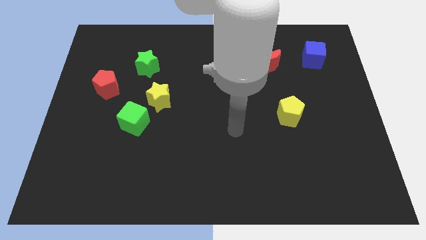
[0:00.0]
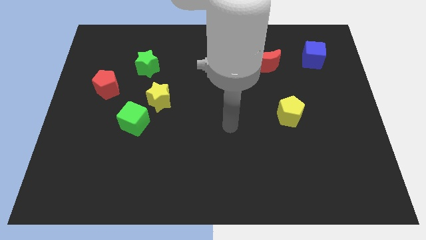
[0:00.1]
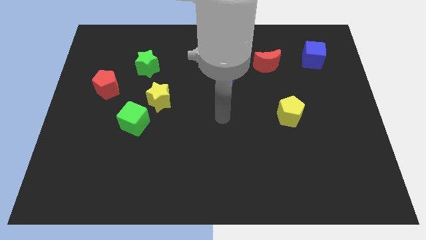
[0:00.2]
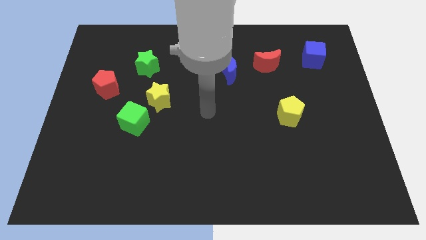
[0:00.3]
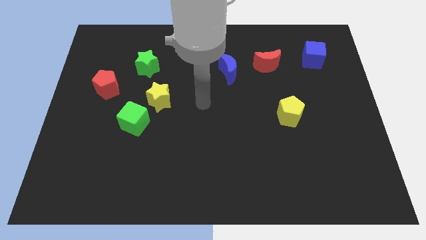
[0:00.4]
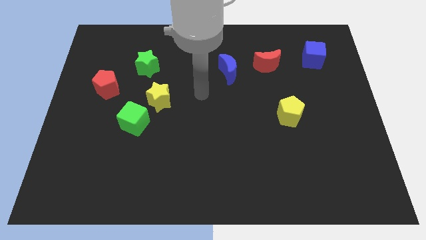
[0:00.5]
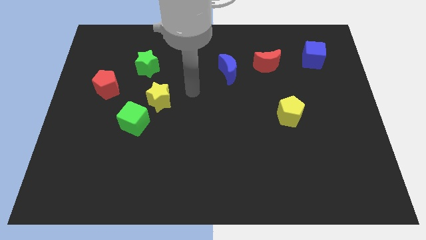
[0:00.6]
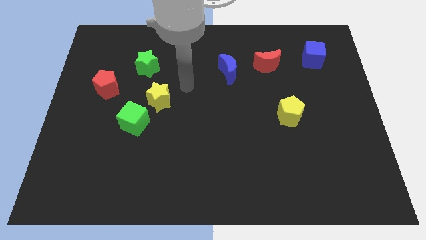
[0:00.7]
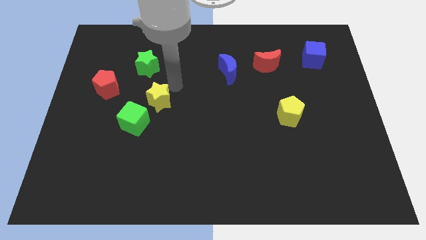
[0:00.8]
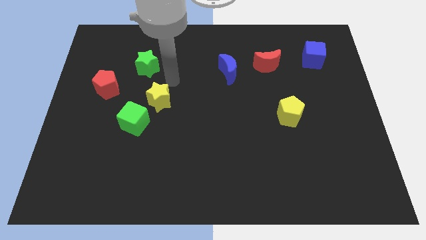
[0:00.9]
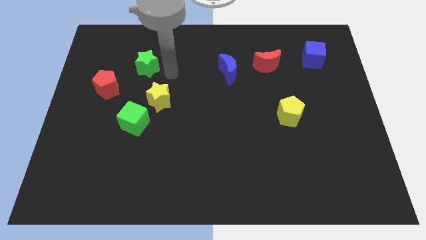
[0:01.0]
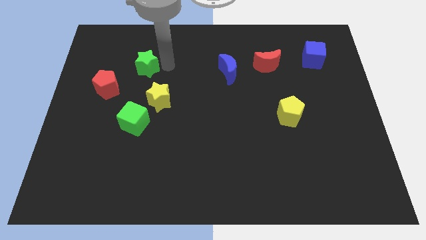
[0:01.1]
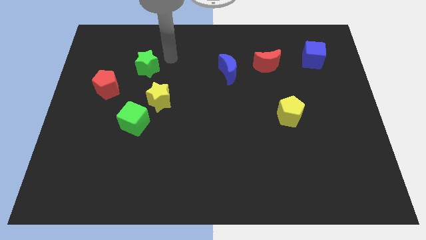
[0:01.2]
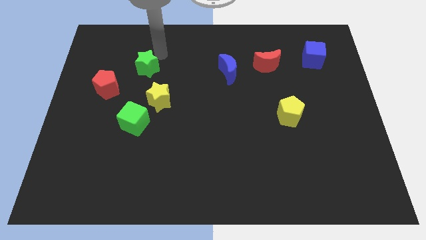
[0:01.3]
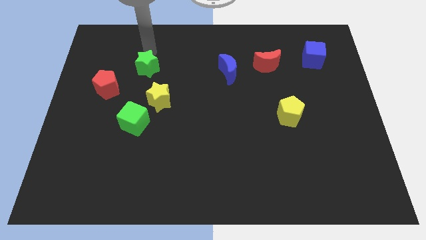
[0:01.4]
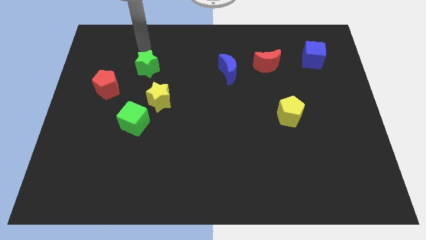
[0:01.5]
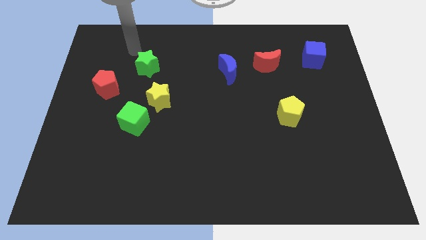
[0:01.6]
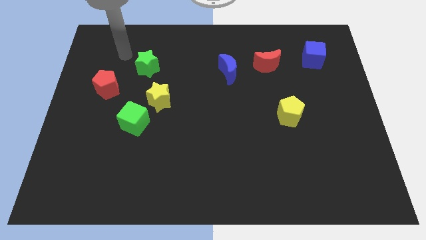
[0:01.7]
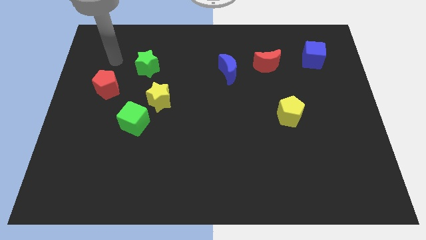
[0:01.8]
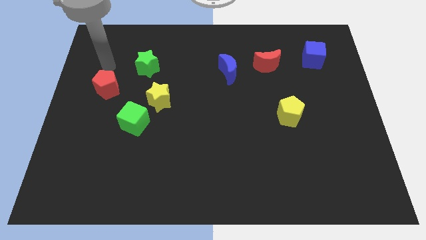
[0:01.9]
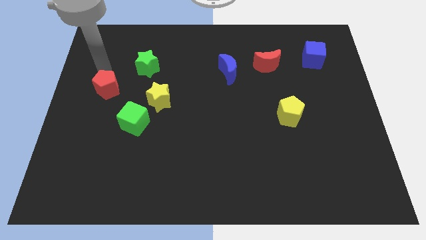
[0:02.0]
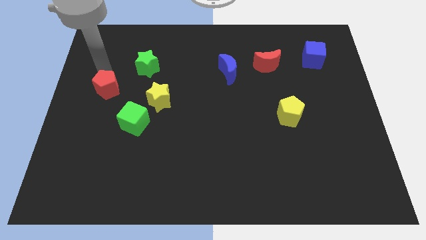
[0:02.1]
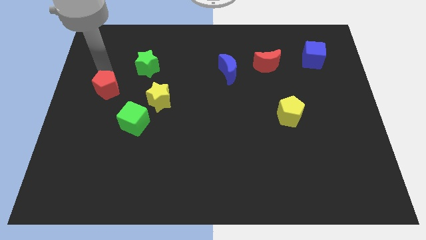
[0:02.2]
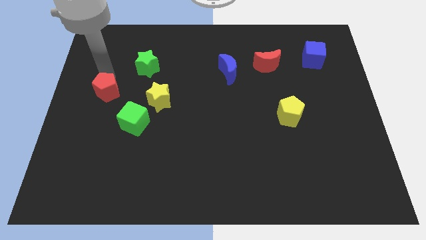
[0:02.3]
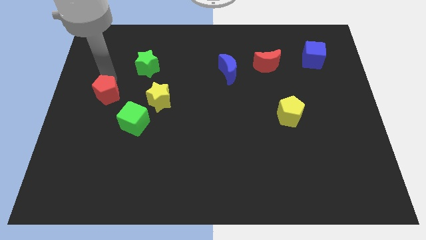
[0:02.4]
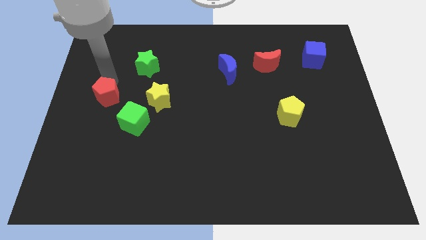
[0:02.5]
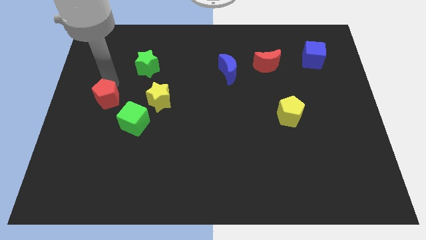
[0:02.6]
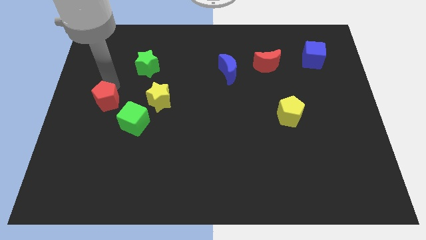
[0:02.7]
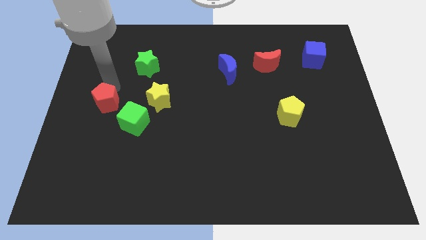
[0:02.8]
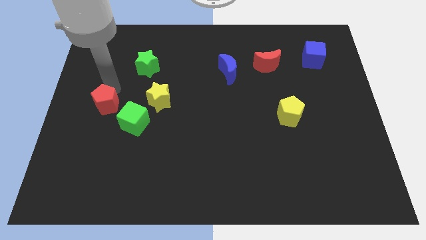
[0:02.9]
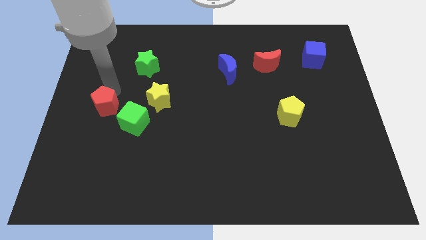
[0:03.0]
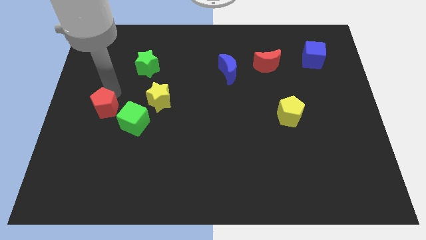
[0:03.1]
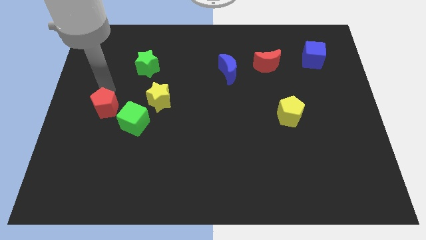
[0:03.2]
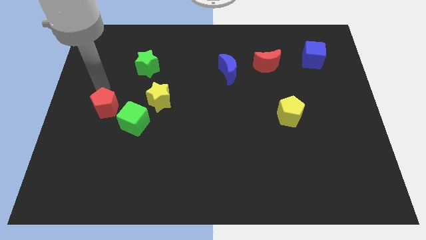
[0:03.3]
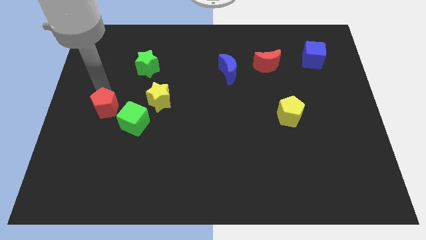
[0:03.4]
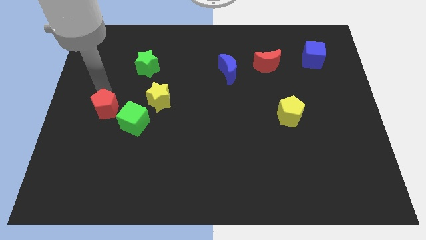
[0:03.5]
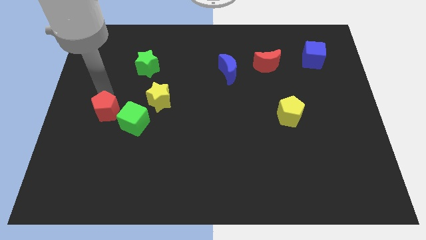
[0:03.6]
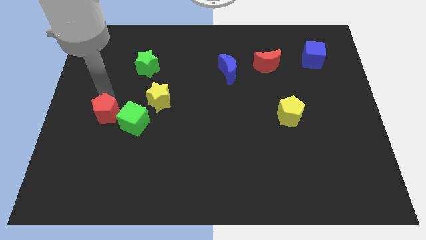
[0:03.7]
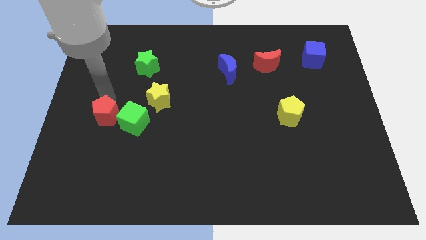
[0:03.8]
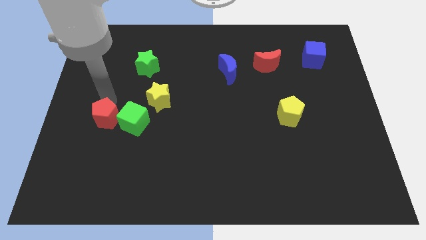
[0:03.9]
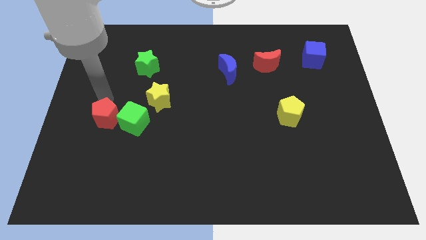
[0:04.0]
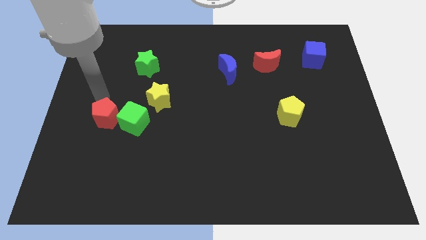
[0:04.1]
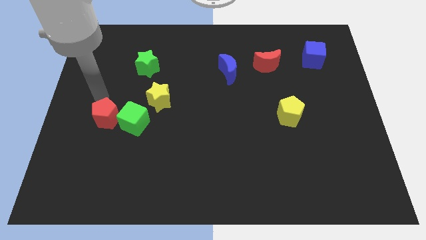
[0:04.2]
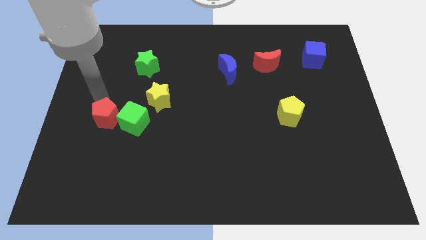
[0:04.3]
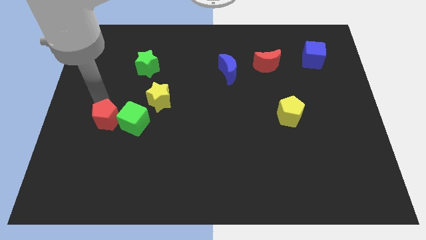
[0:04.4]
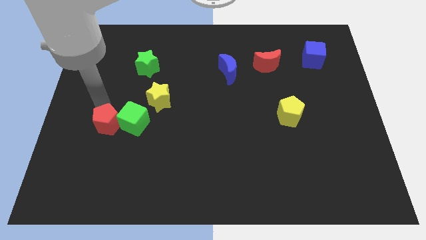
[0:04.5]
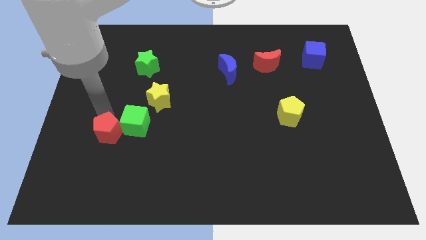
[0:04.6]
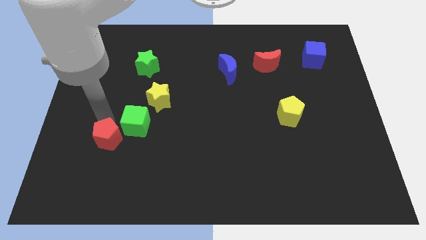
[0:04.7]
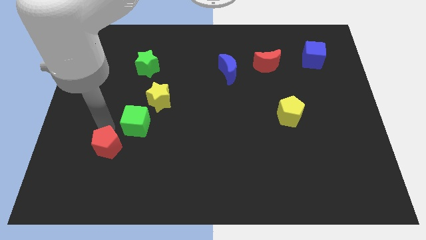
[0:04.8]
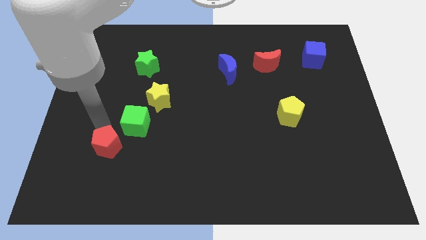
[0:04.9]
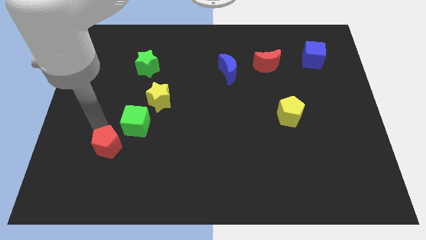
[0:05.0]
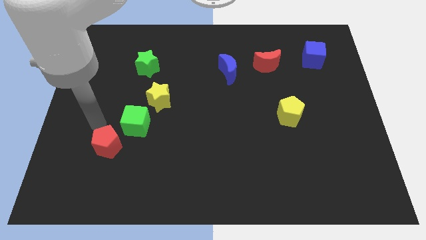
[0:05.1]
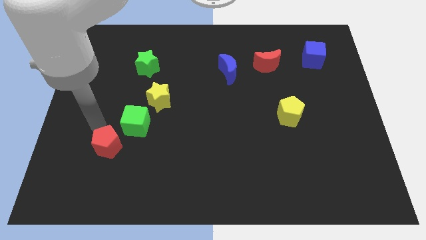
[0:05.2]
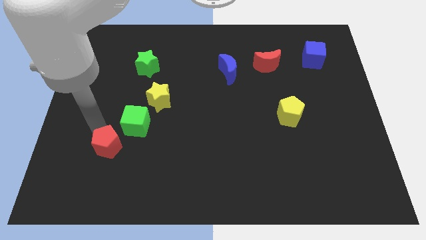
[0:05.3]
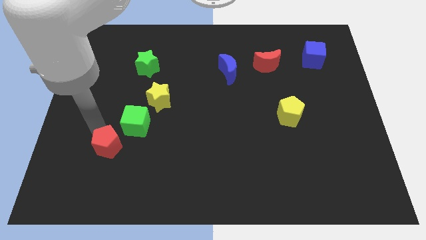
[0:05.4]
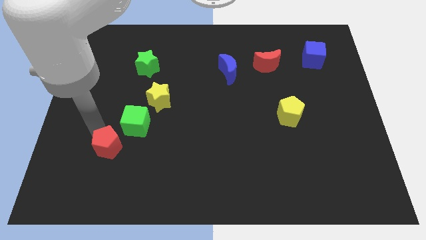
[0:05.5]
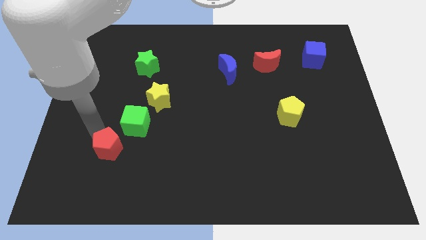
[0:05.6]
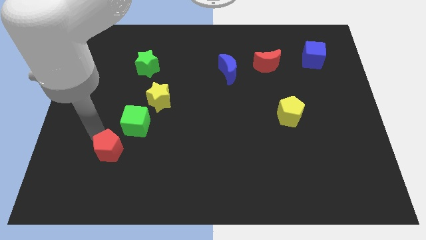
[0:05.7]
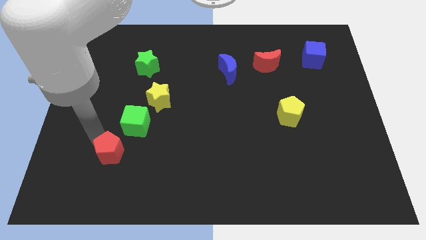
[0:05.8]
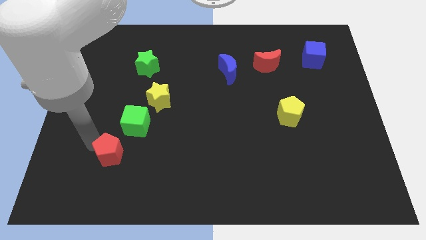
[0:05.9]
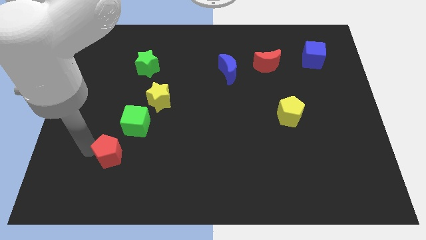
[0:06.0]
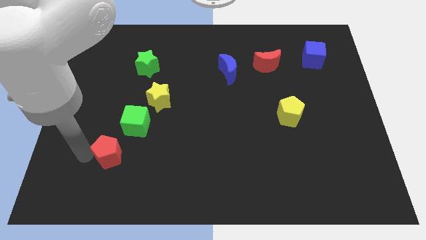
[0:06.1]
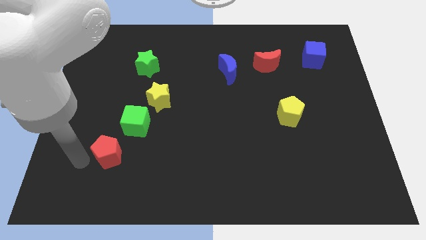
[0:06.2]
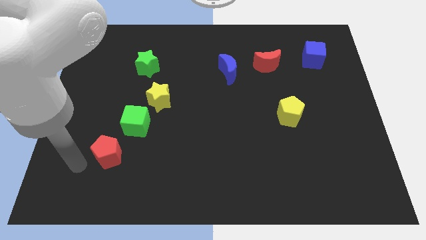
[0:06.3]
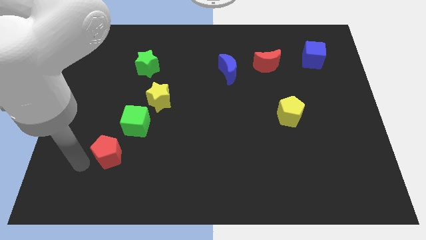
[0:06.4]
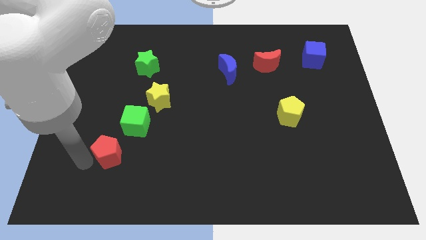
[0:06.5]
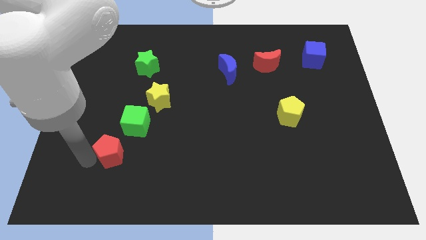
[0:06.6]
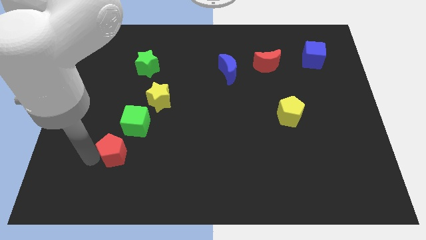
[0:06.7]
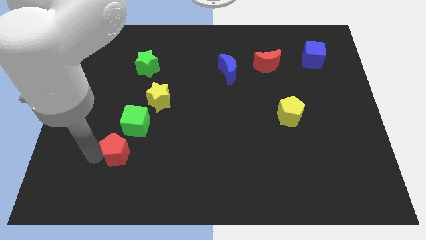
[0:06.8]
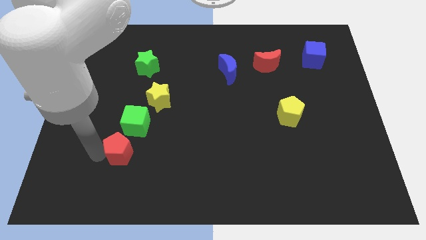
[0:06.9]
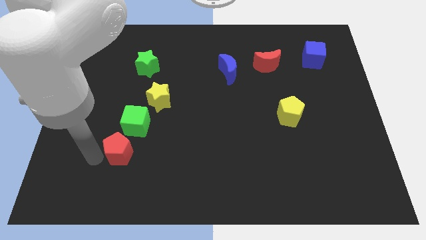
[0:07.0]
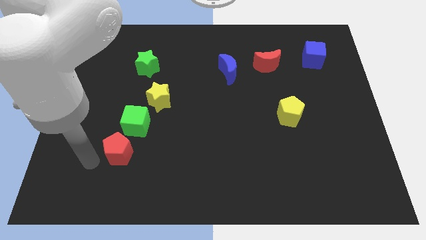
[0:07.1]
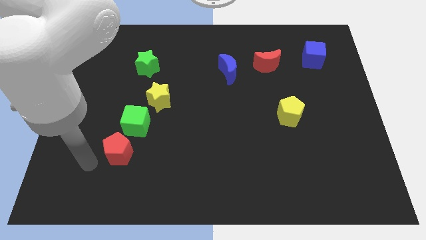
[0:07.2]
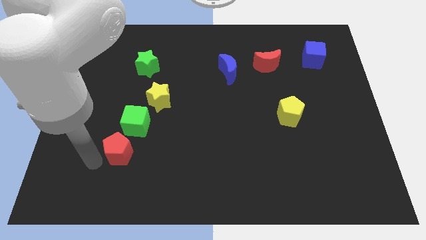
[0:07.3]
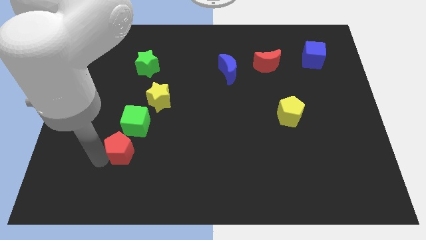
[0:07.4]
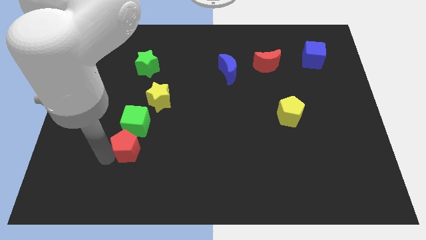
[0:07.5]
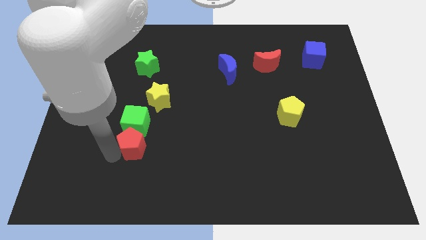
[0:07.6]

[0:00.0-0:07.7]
slide the red pentagon to the bottom of the yellow star
